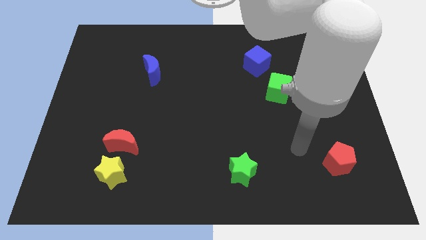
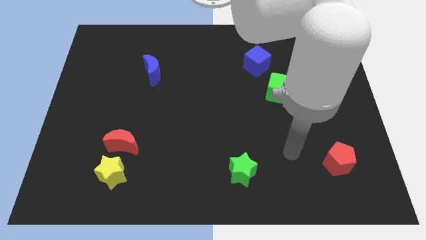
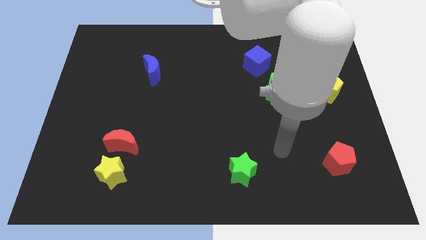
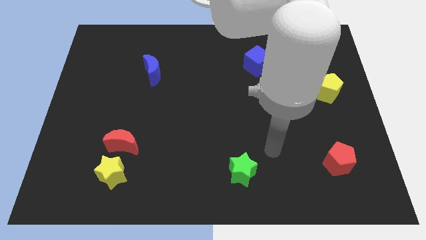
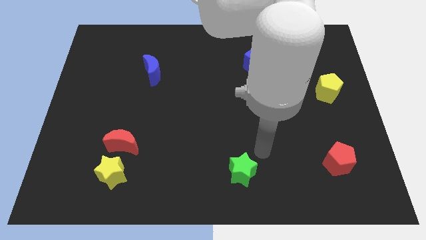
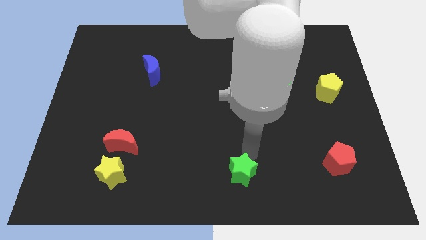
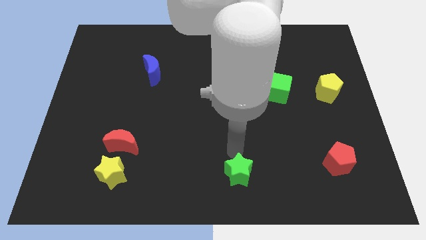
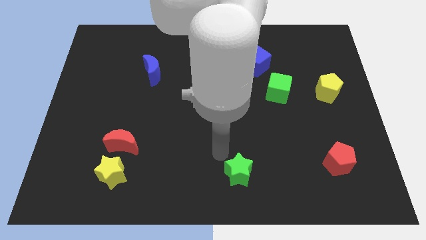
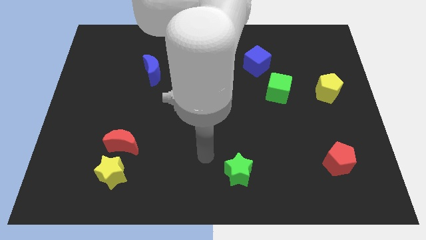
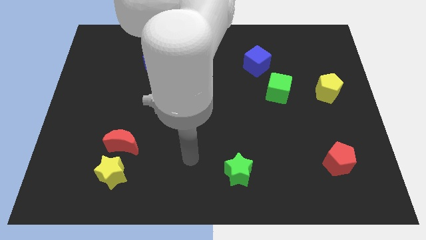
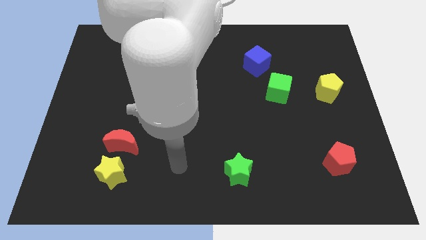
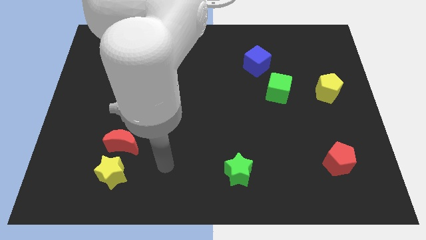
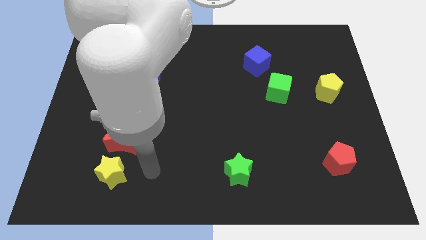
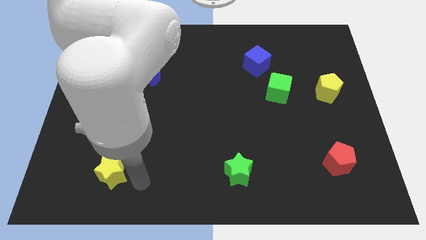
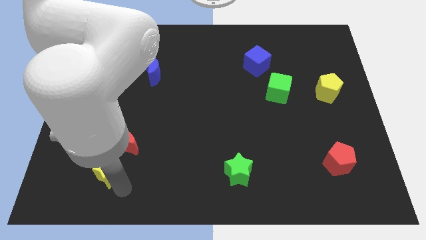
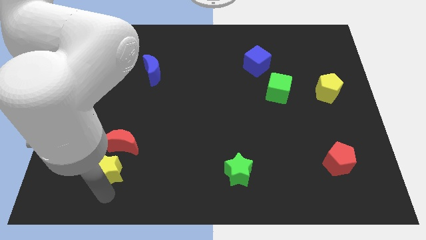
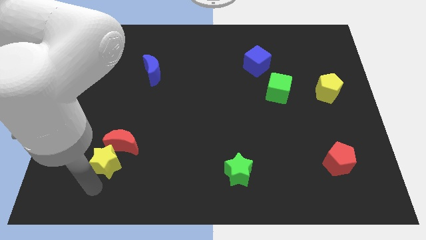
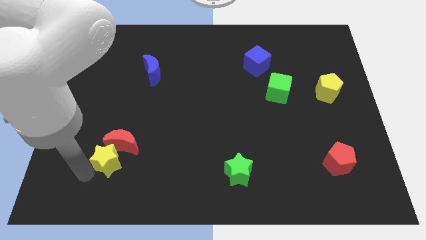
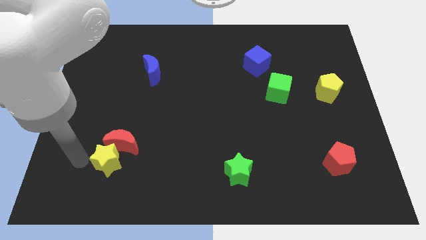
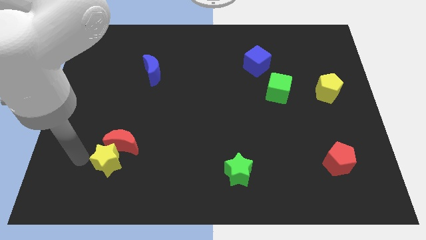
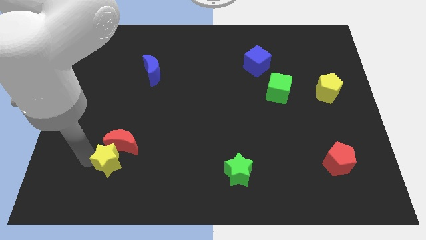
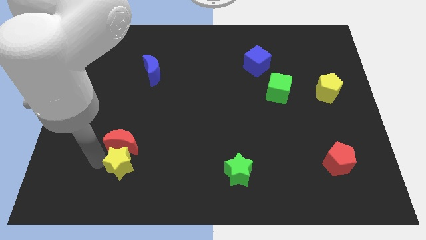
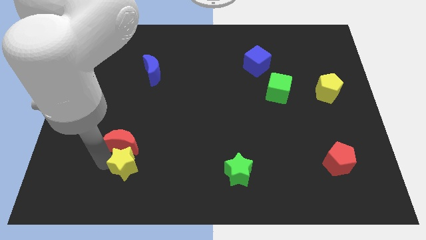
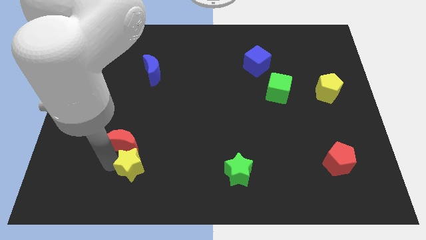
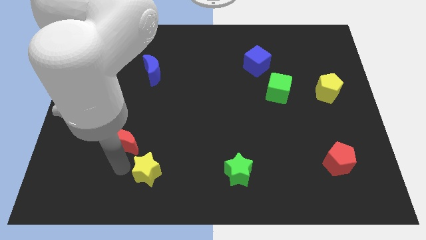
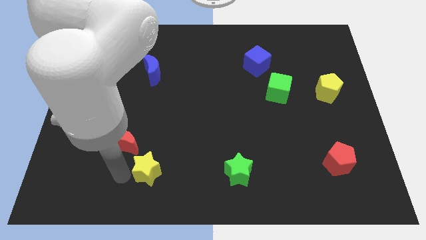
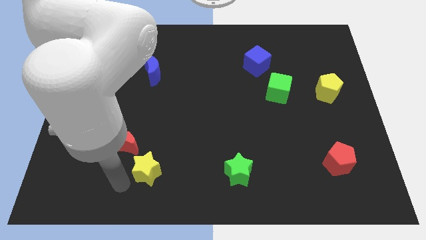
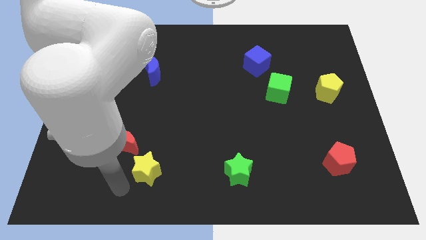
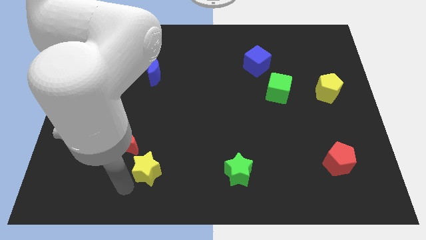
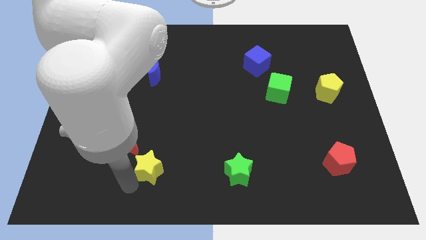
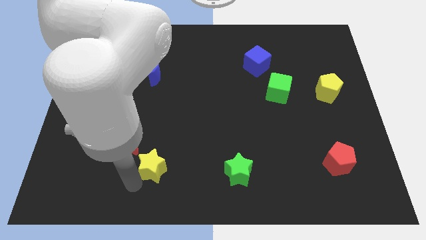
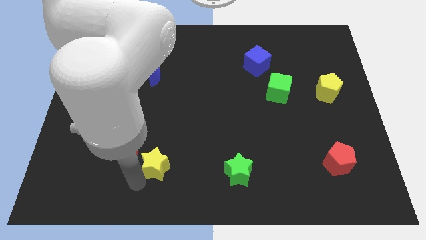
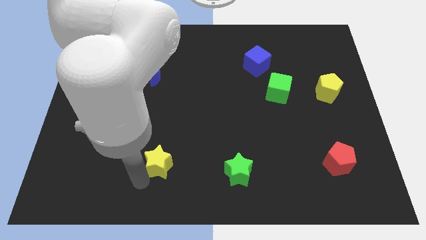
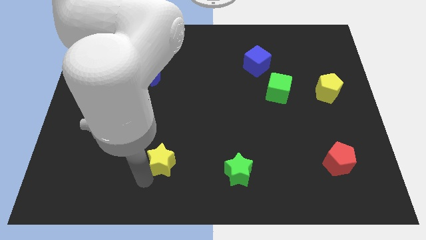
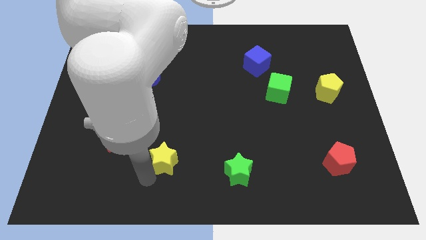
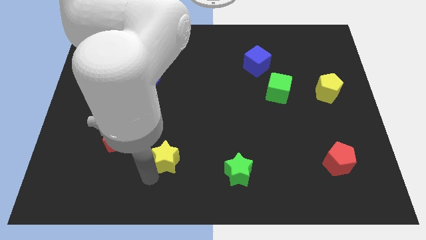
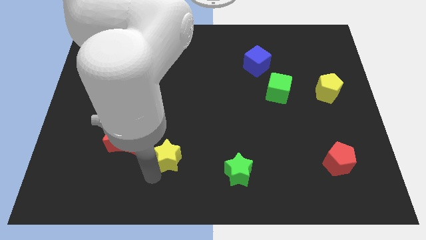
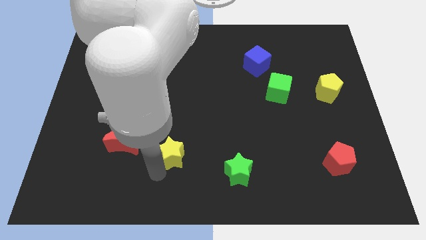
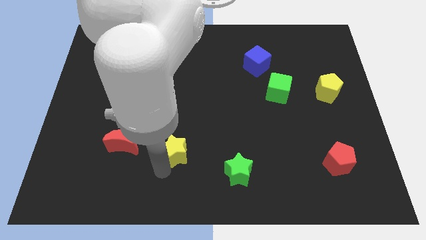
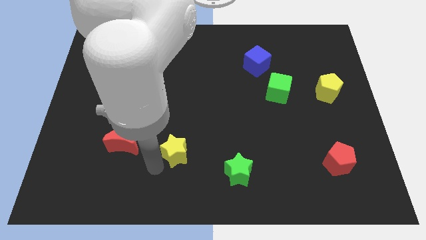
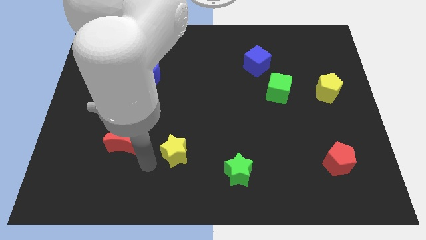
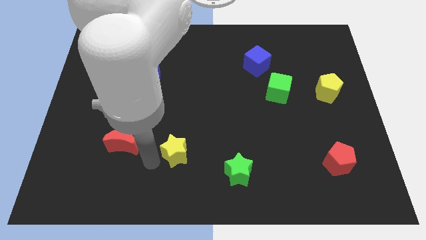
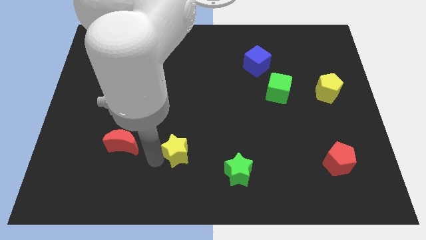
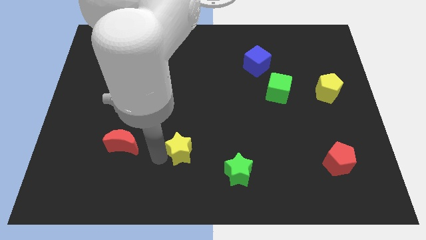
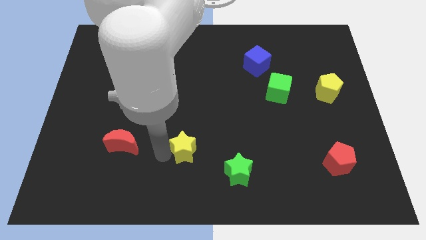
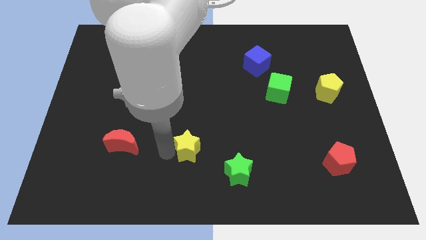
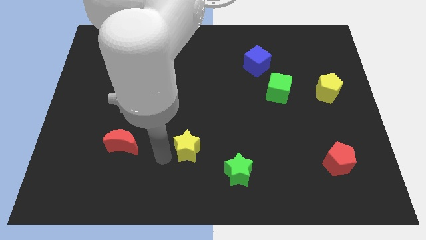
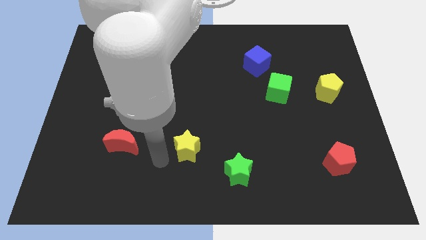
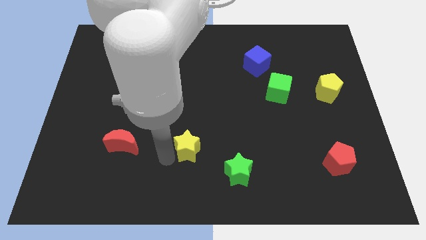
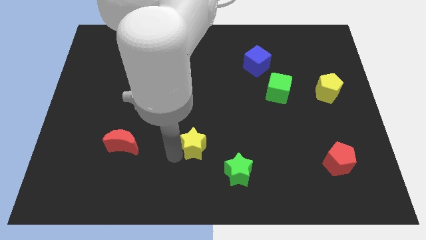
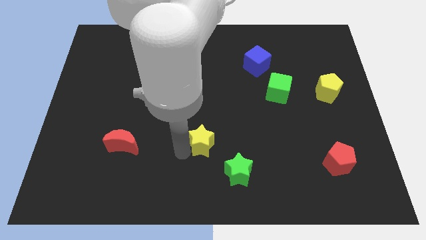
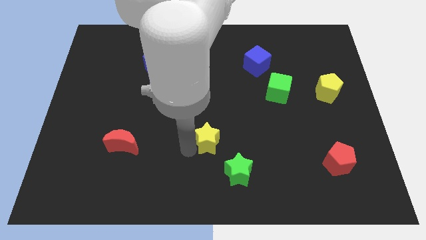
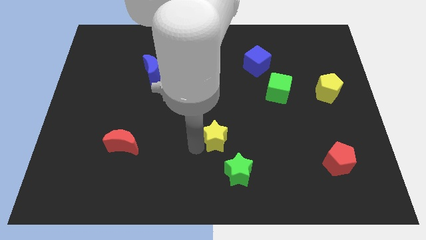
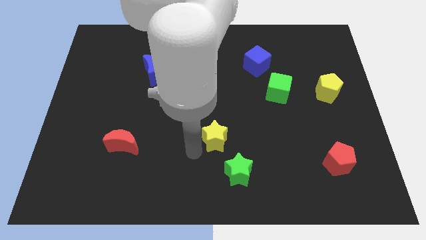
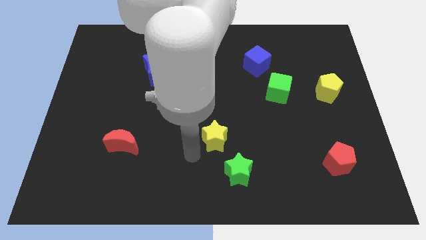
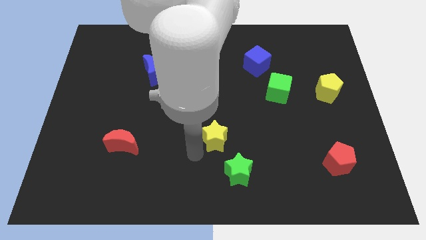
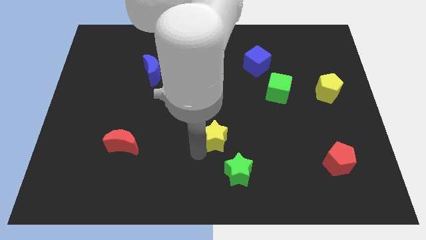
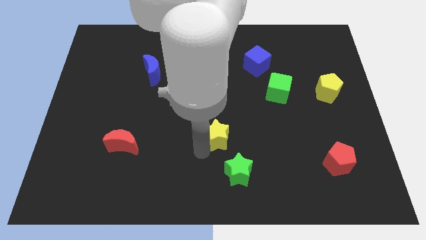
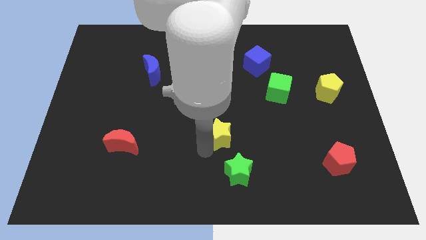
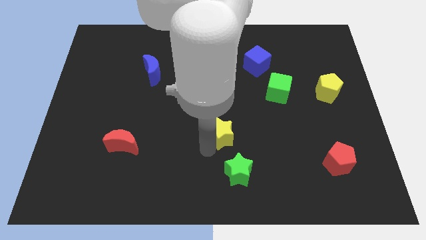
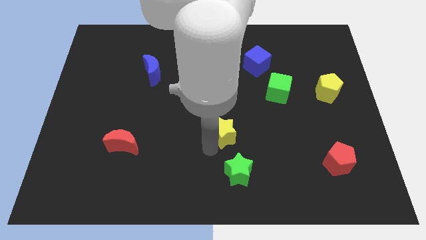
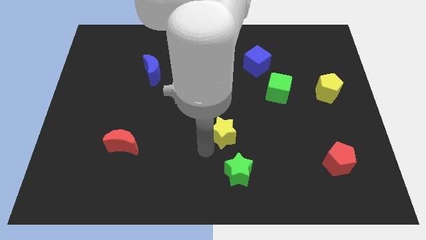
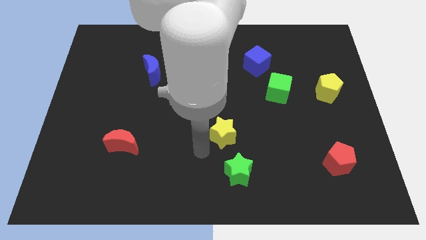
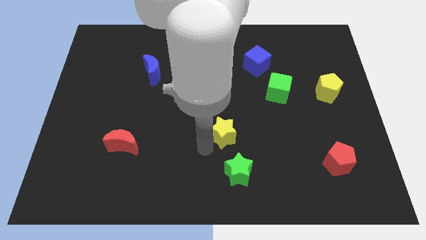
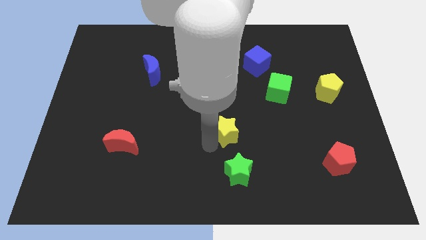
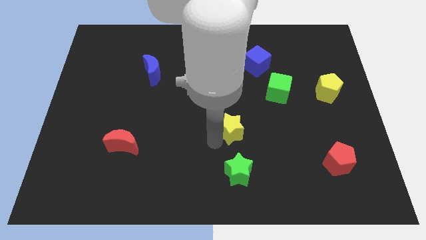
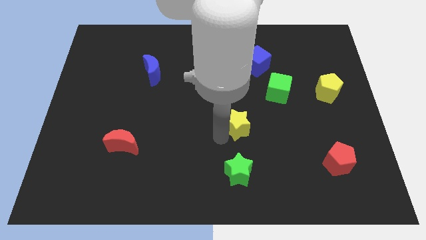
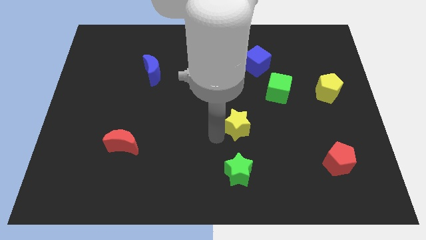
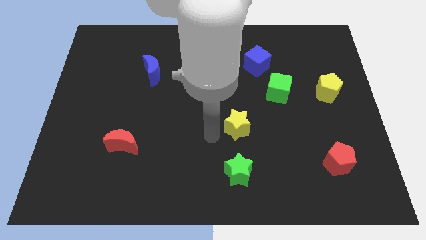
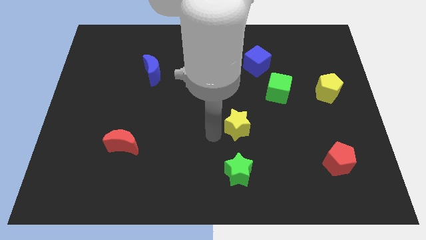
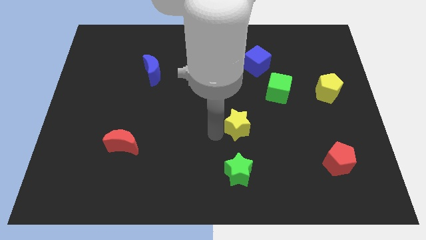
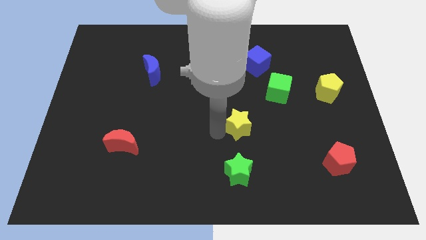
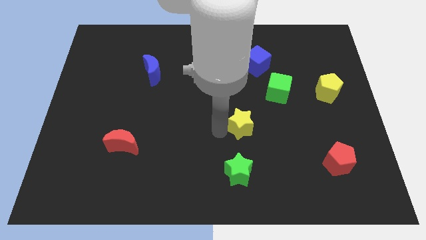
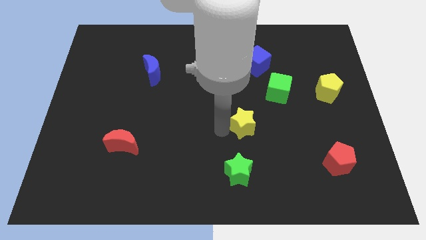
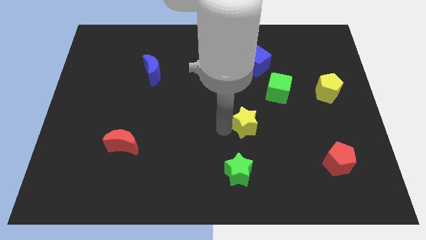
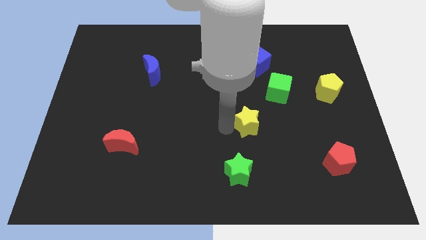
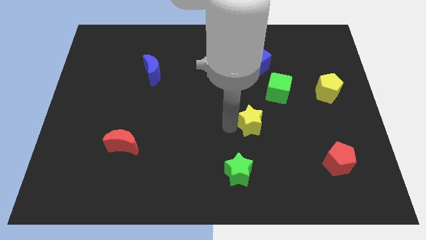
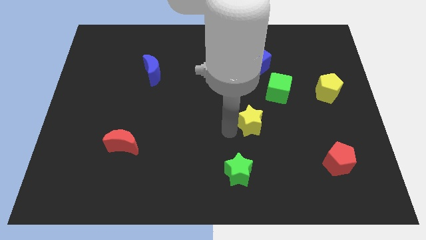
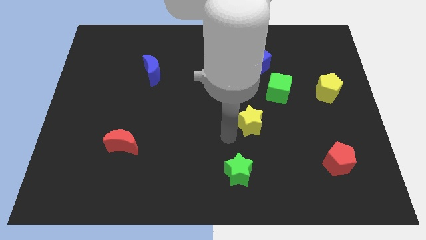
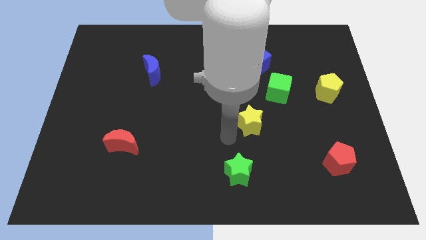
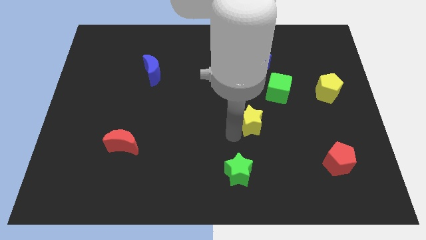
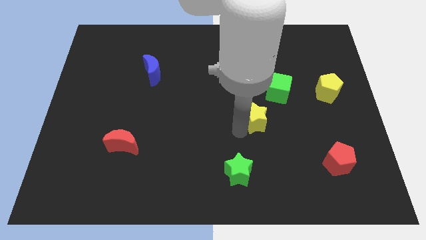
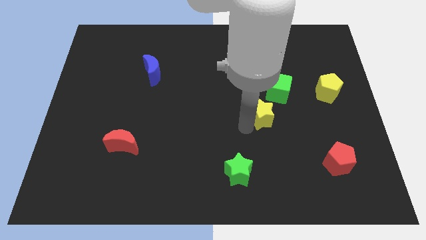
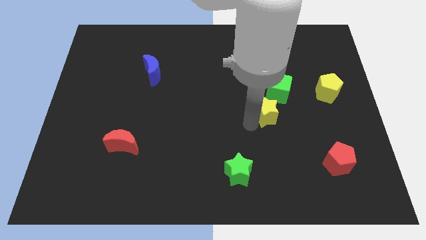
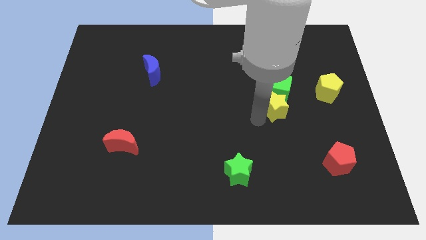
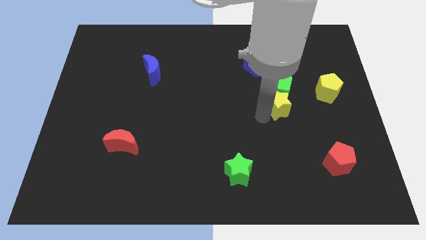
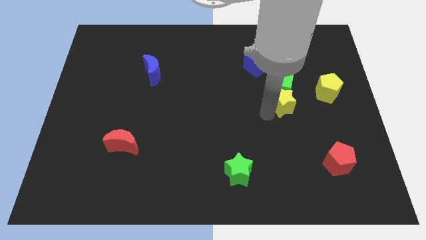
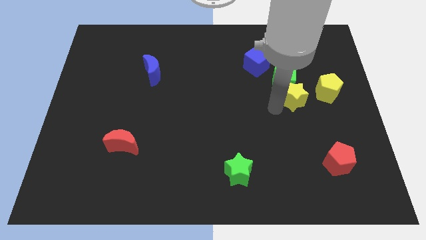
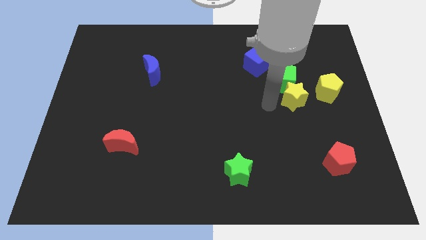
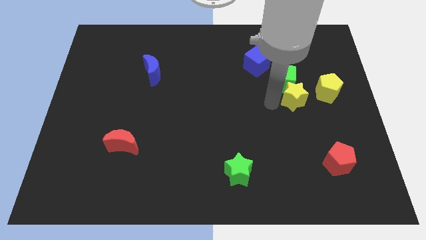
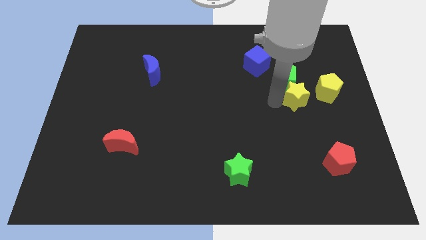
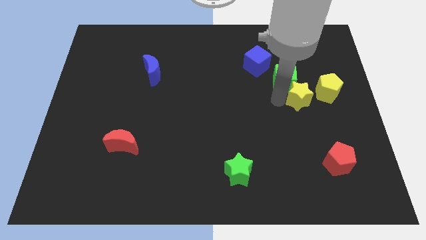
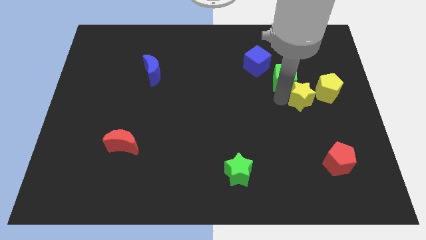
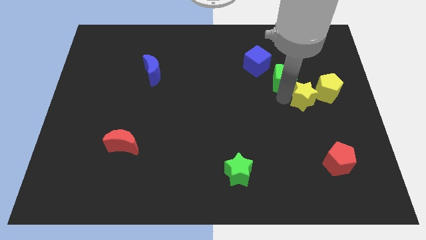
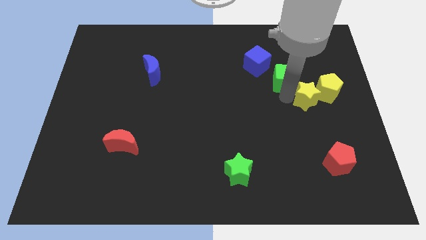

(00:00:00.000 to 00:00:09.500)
slide the yellow star close to the yellow pentagon
